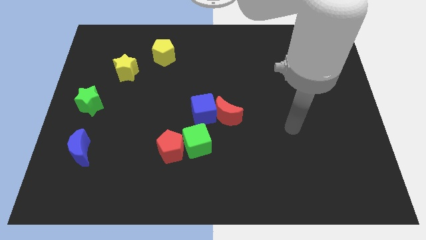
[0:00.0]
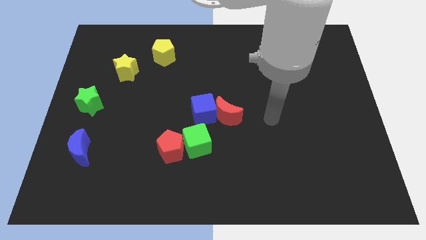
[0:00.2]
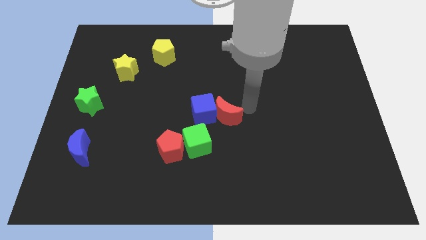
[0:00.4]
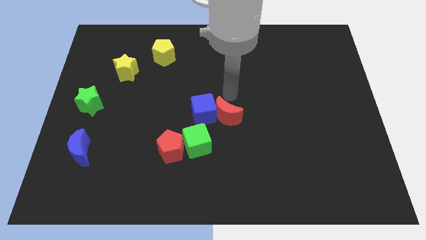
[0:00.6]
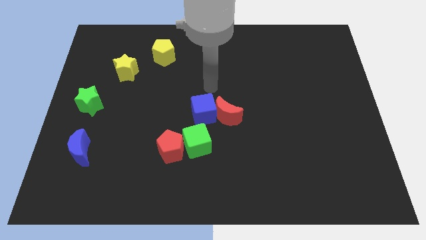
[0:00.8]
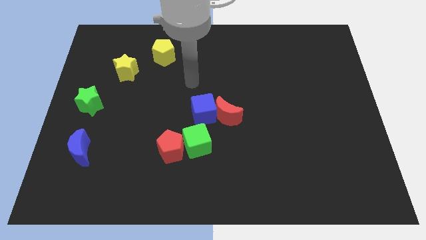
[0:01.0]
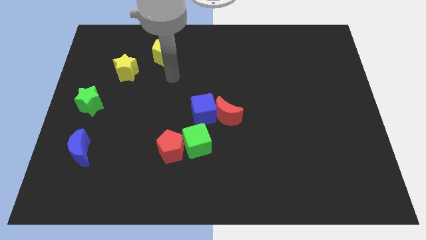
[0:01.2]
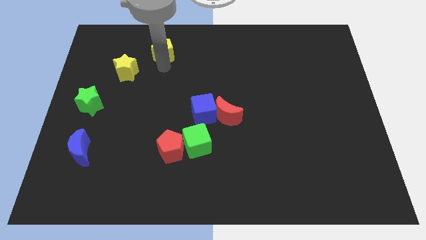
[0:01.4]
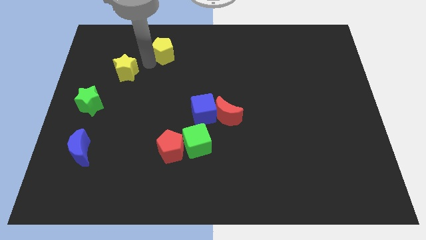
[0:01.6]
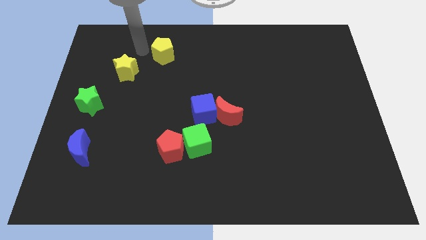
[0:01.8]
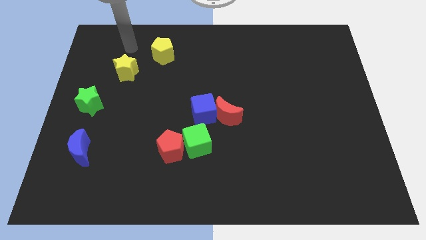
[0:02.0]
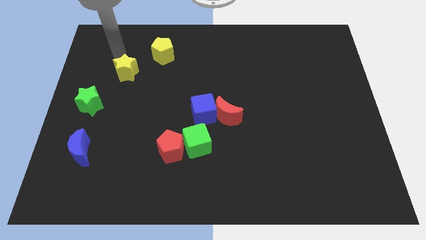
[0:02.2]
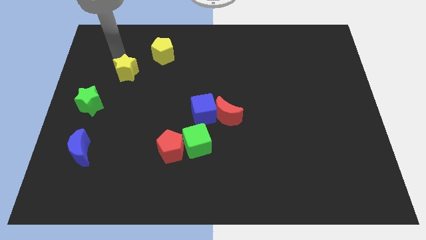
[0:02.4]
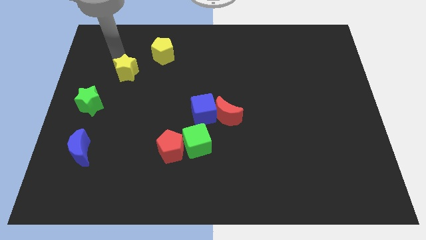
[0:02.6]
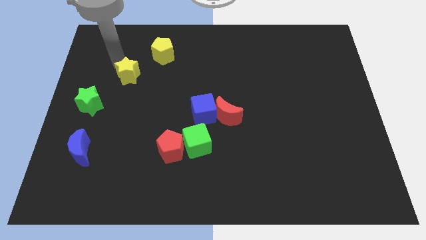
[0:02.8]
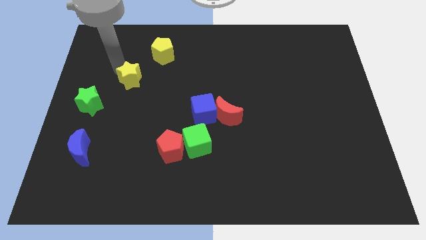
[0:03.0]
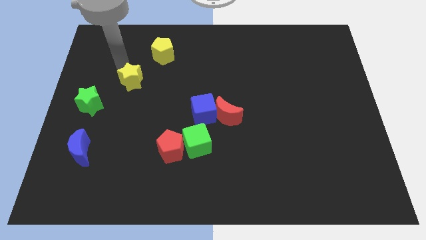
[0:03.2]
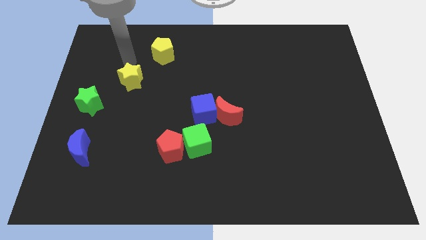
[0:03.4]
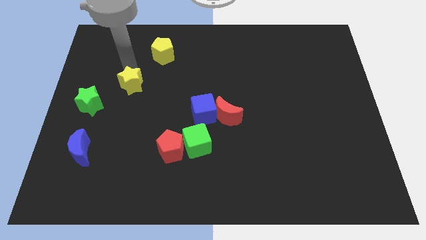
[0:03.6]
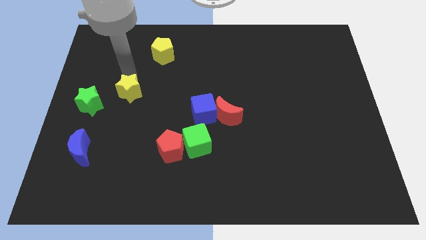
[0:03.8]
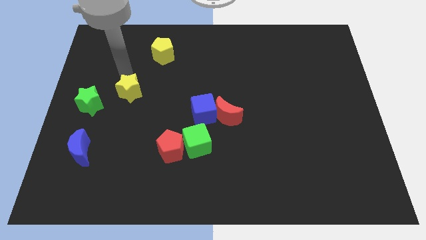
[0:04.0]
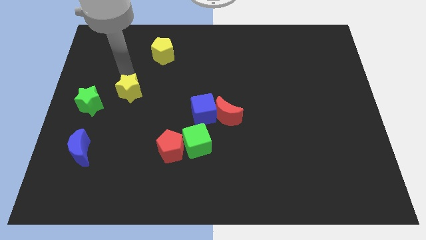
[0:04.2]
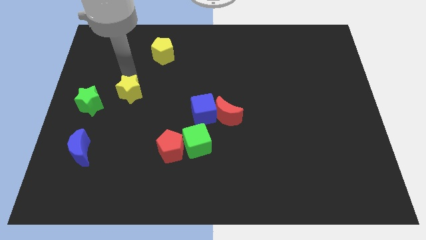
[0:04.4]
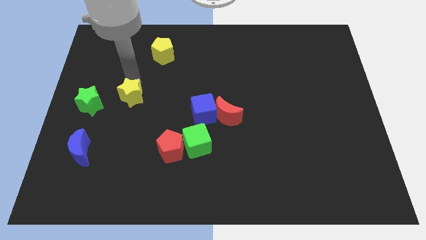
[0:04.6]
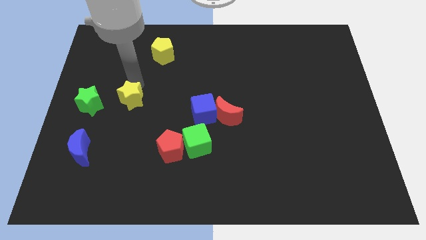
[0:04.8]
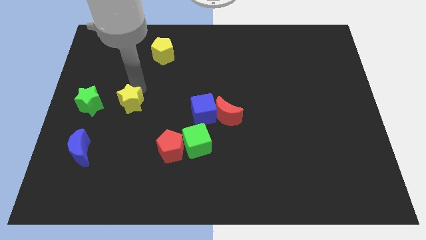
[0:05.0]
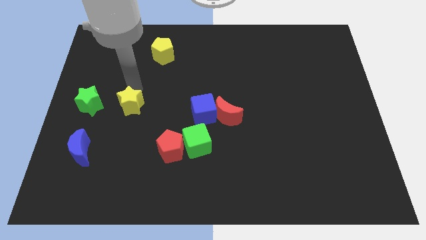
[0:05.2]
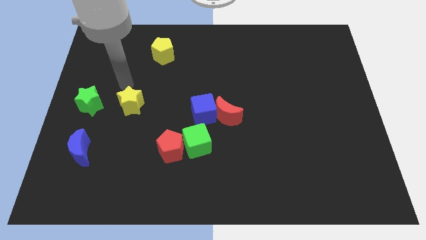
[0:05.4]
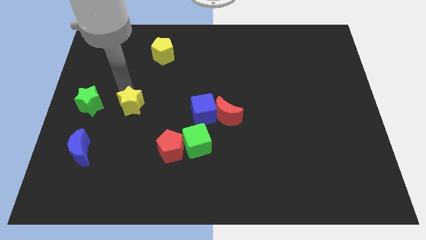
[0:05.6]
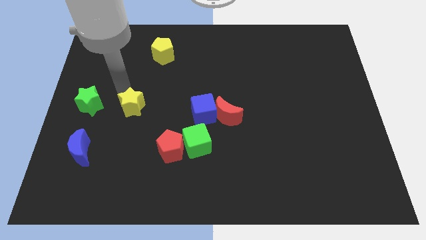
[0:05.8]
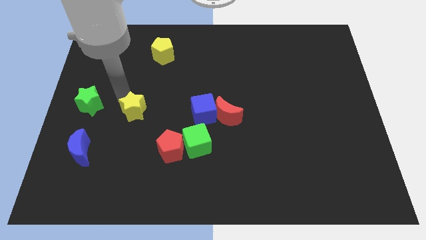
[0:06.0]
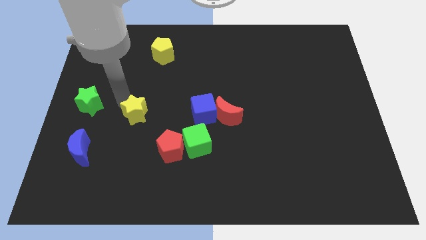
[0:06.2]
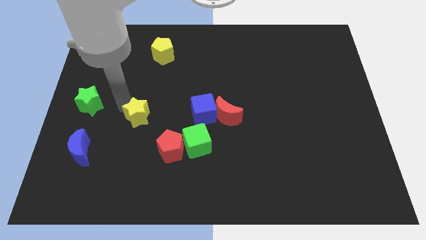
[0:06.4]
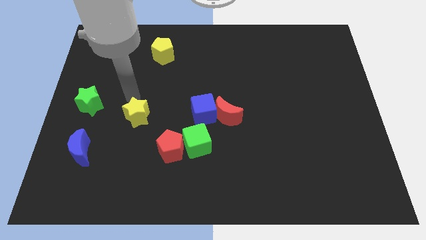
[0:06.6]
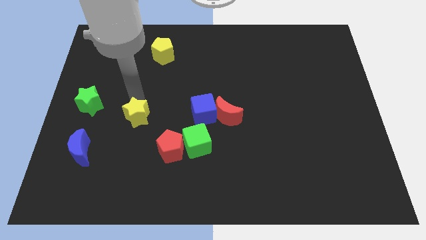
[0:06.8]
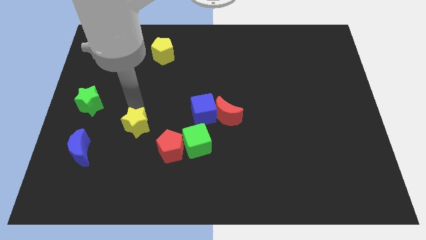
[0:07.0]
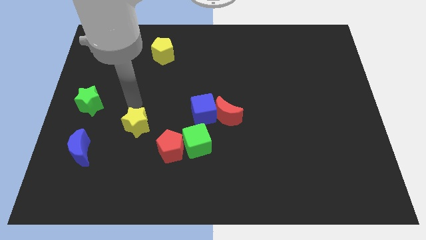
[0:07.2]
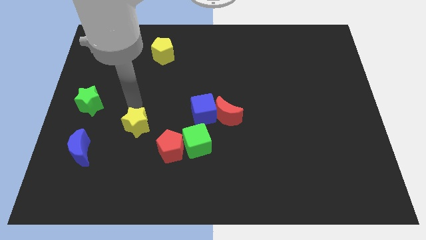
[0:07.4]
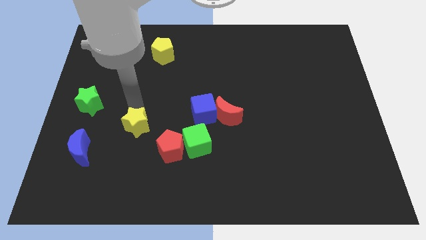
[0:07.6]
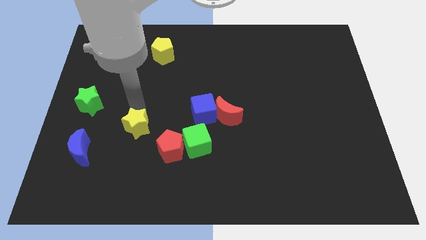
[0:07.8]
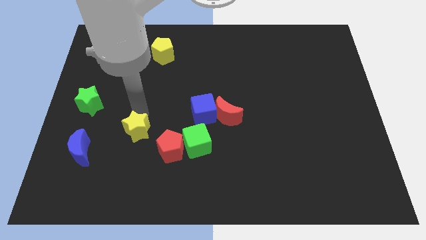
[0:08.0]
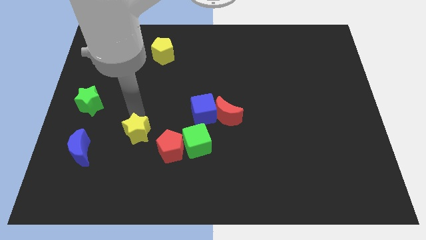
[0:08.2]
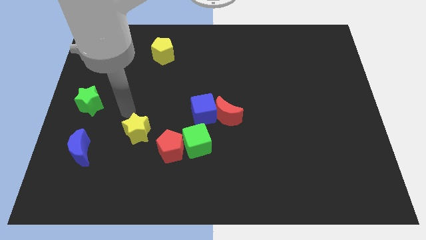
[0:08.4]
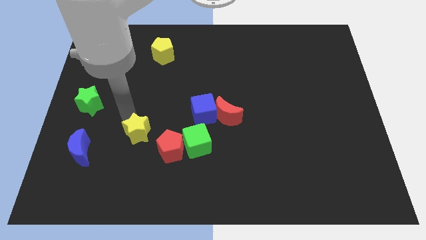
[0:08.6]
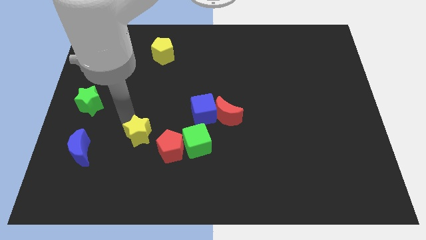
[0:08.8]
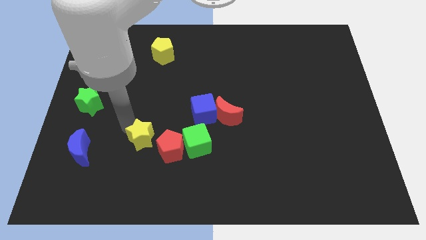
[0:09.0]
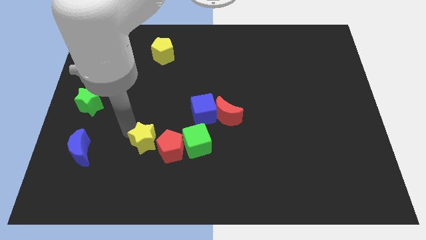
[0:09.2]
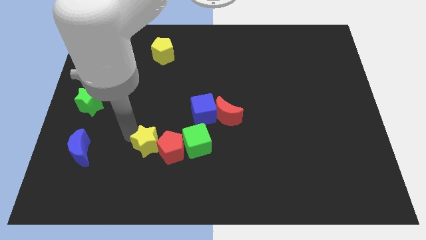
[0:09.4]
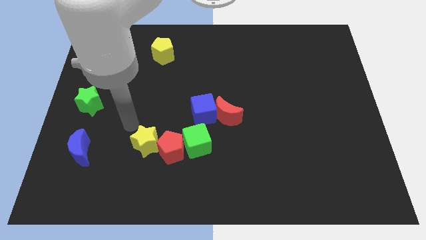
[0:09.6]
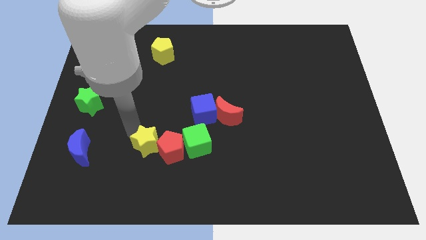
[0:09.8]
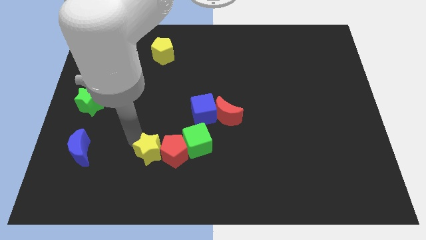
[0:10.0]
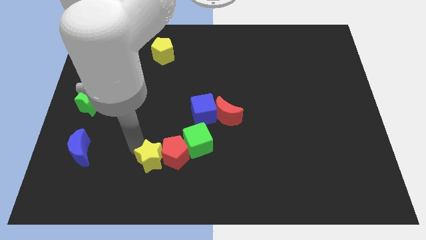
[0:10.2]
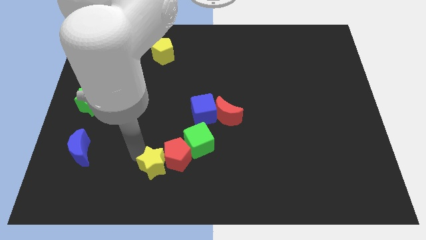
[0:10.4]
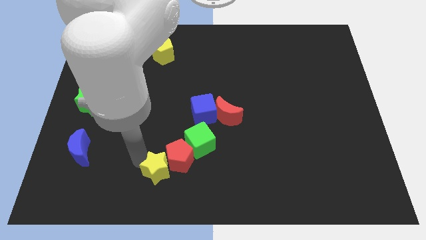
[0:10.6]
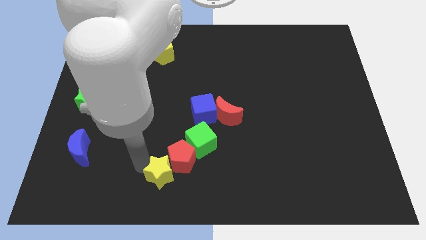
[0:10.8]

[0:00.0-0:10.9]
push the yellow star to the bottom side

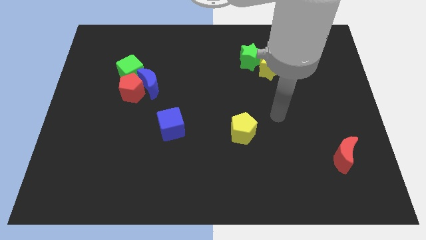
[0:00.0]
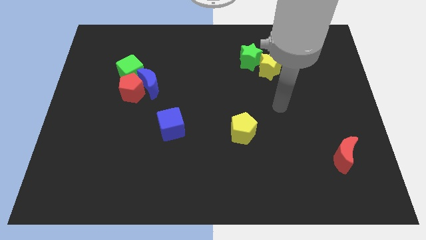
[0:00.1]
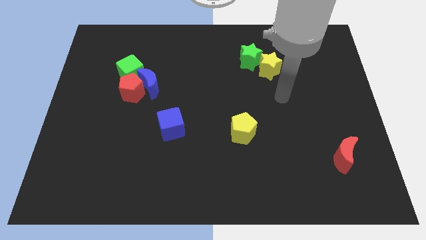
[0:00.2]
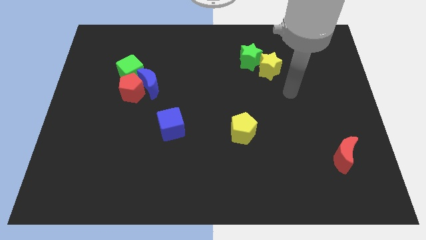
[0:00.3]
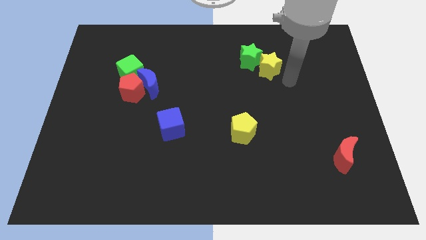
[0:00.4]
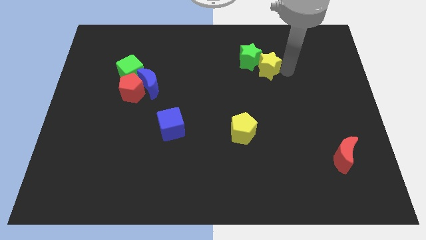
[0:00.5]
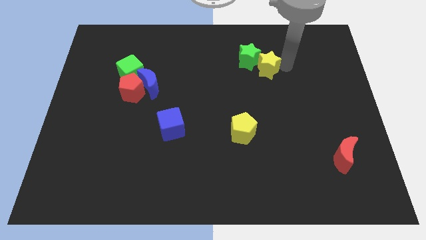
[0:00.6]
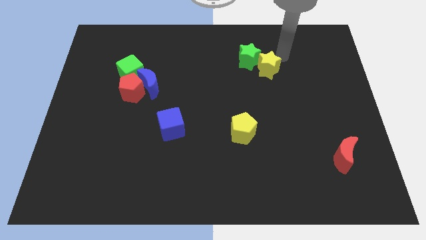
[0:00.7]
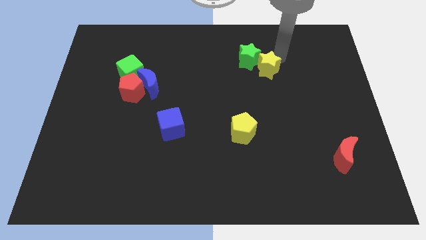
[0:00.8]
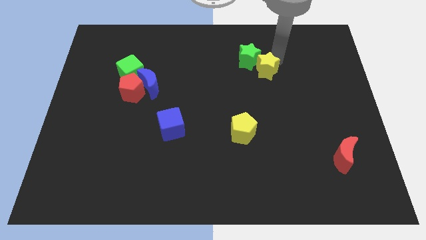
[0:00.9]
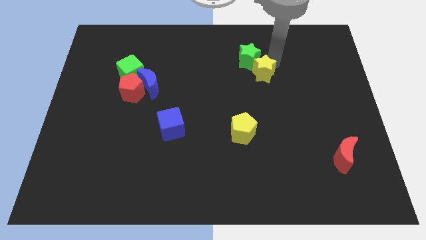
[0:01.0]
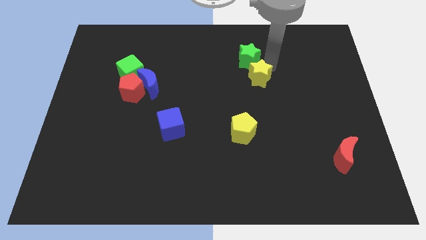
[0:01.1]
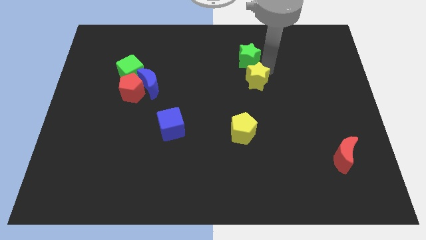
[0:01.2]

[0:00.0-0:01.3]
put the yellow star to the middle
